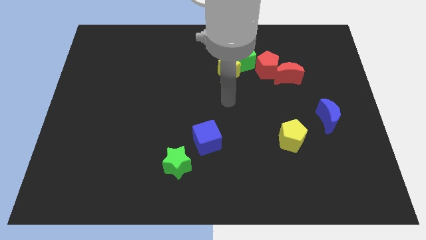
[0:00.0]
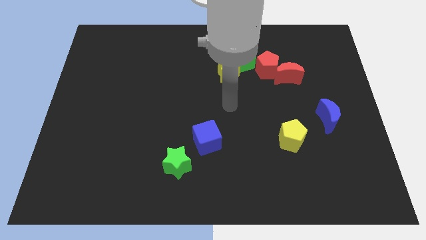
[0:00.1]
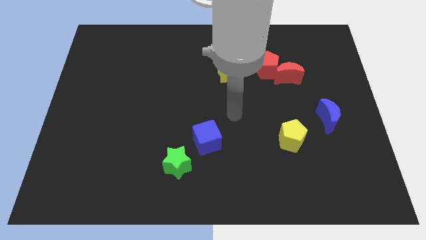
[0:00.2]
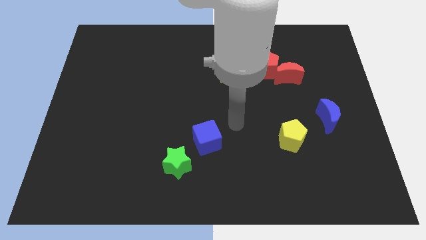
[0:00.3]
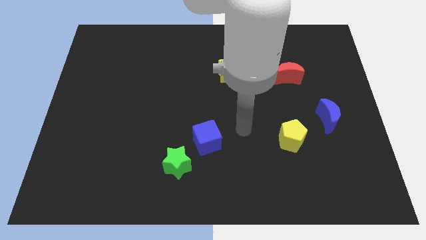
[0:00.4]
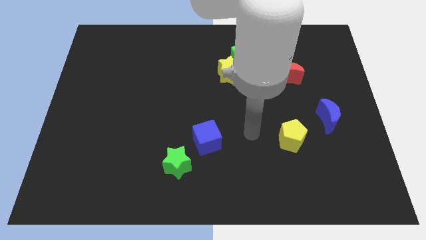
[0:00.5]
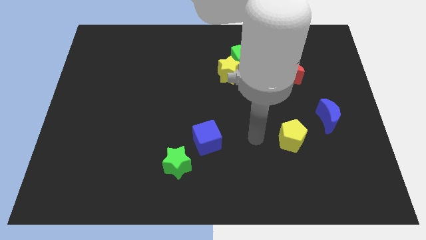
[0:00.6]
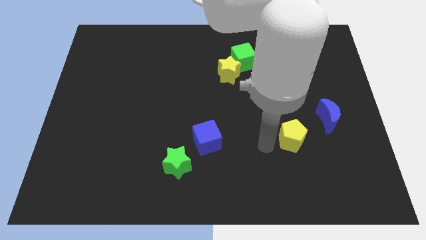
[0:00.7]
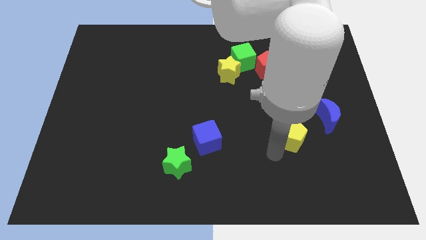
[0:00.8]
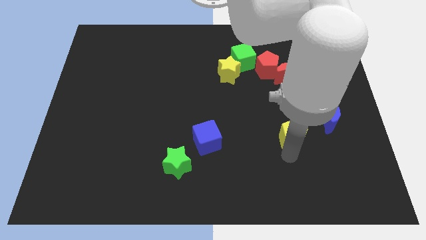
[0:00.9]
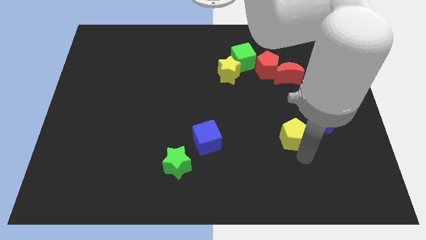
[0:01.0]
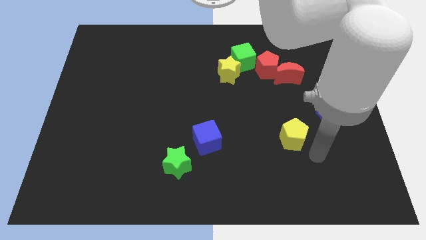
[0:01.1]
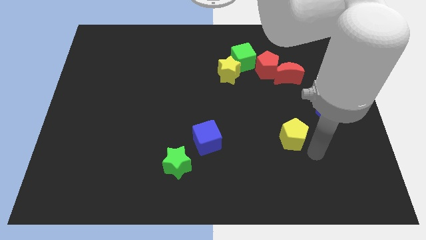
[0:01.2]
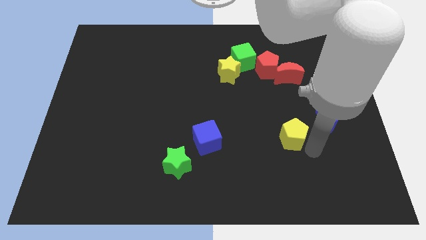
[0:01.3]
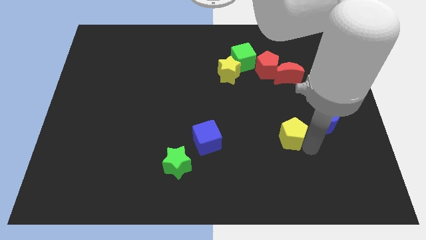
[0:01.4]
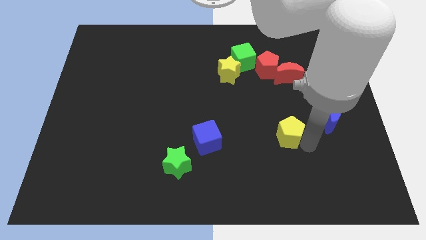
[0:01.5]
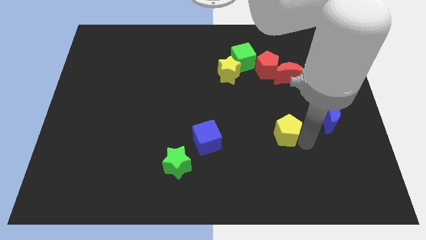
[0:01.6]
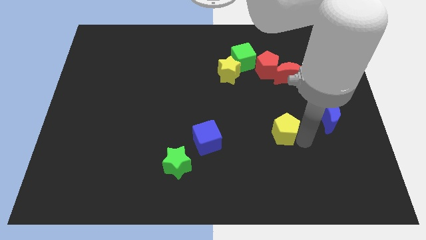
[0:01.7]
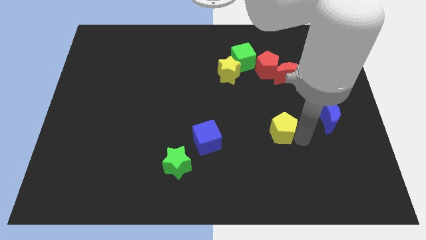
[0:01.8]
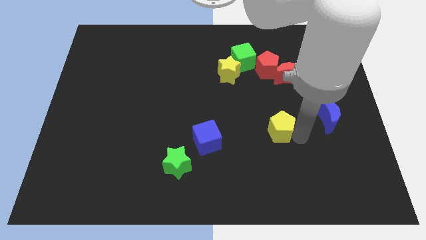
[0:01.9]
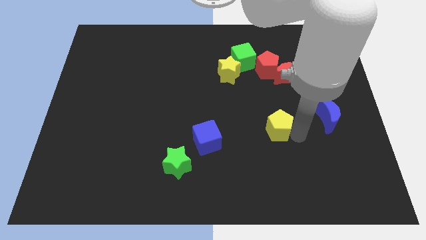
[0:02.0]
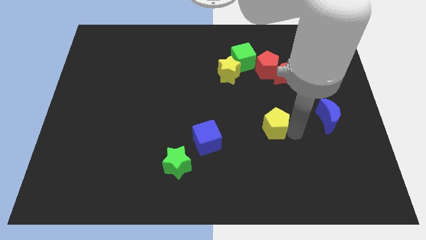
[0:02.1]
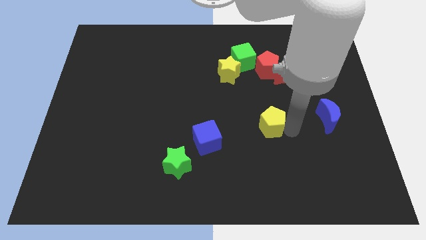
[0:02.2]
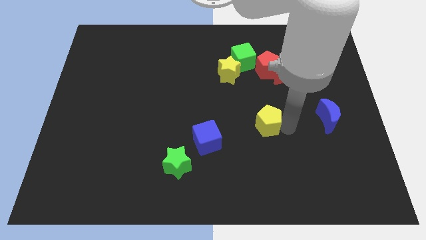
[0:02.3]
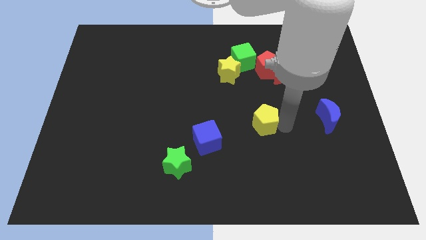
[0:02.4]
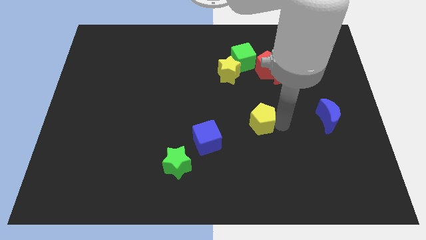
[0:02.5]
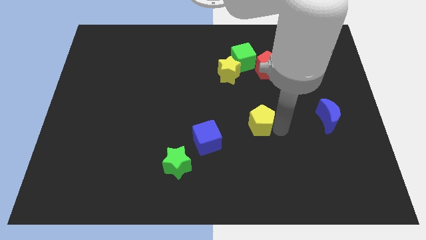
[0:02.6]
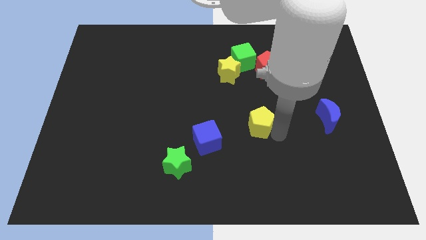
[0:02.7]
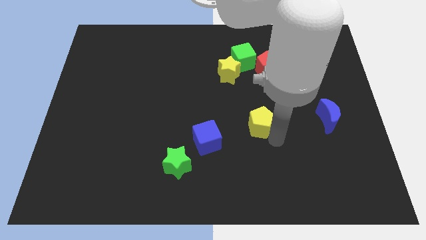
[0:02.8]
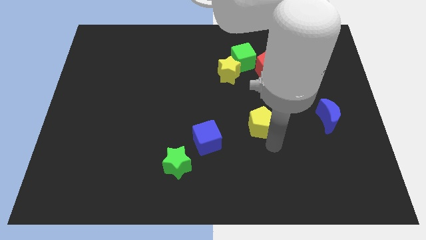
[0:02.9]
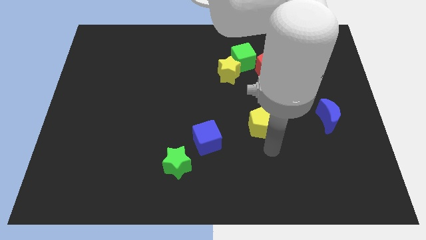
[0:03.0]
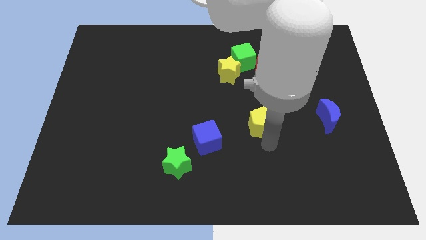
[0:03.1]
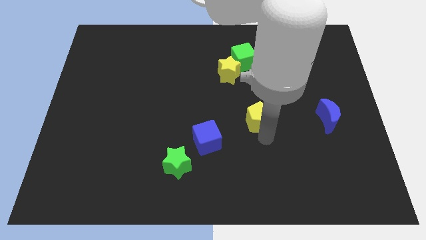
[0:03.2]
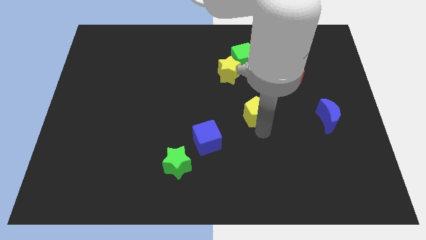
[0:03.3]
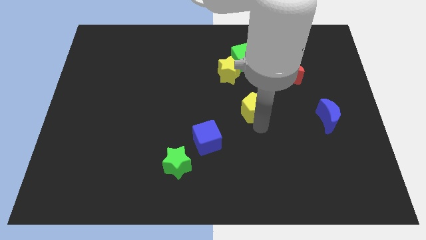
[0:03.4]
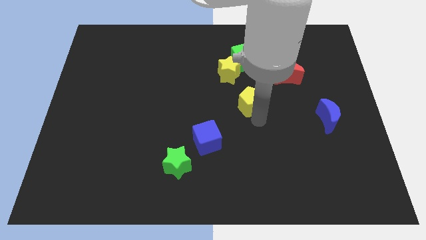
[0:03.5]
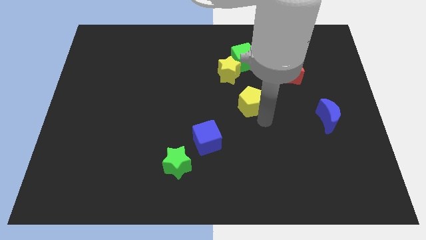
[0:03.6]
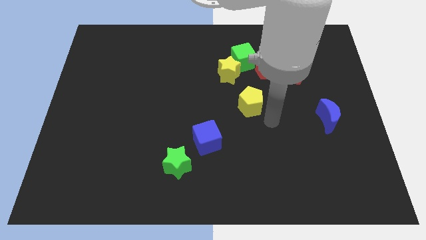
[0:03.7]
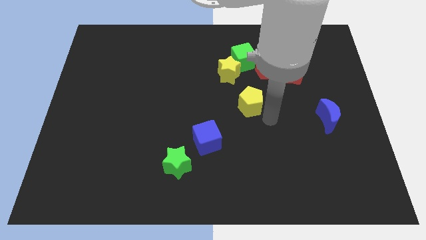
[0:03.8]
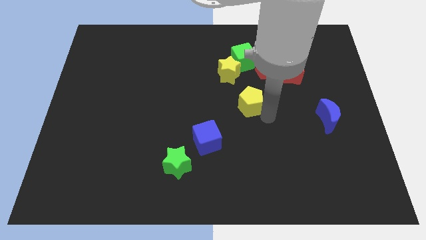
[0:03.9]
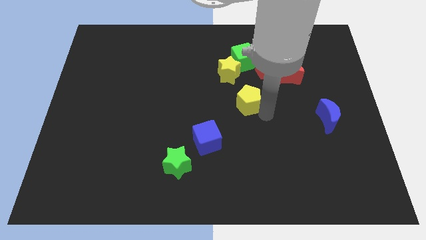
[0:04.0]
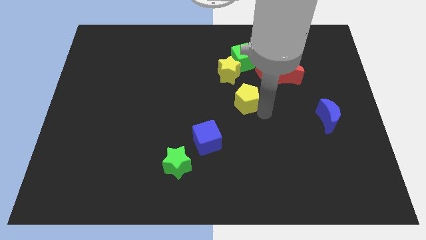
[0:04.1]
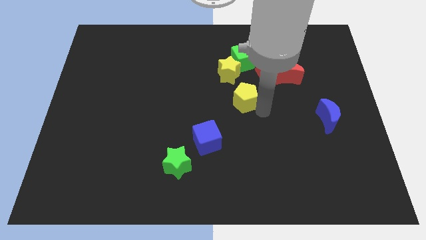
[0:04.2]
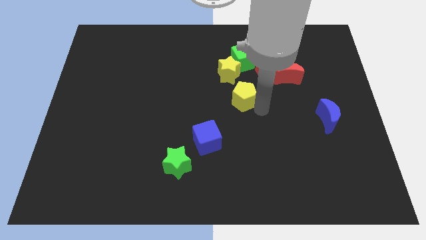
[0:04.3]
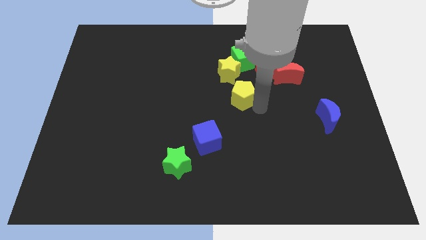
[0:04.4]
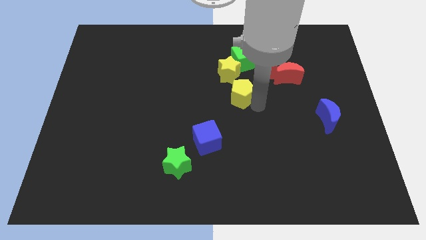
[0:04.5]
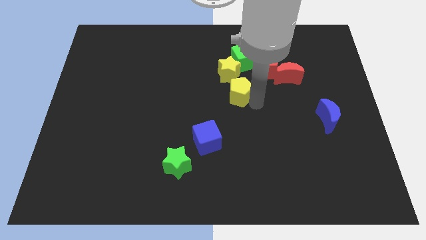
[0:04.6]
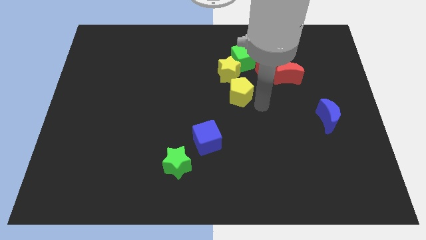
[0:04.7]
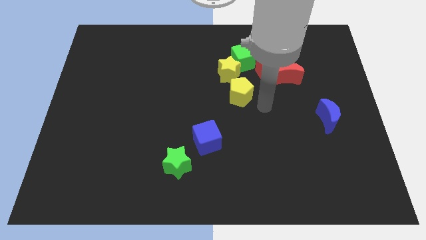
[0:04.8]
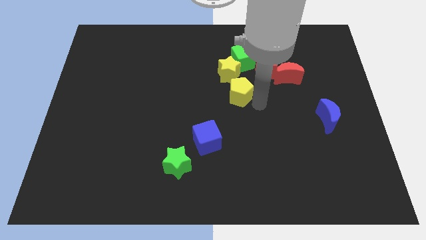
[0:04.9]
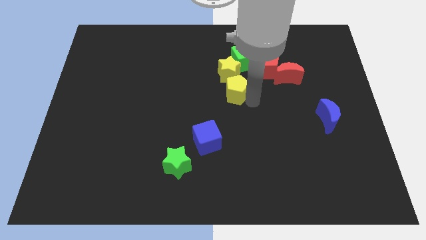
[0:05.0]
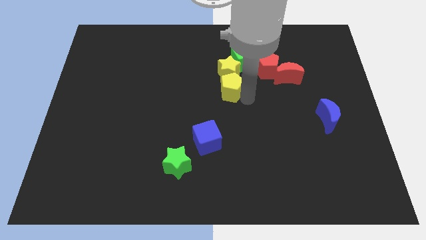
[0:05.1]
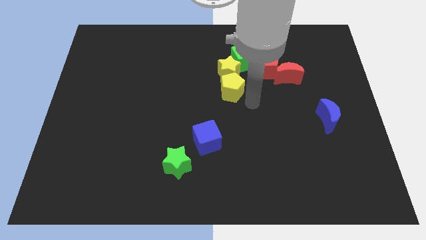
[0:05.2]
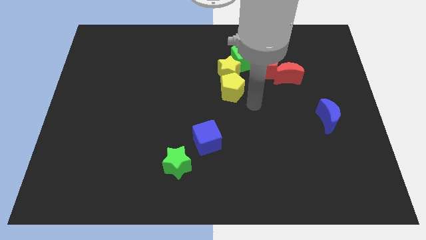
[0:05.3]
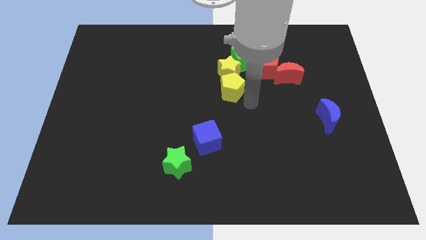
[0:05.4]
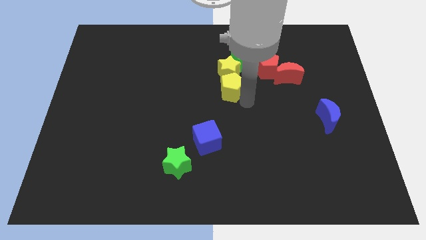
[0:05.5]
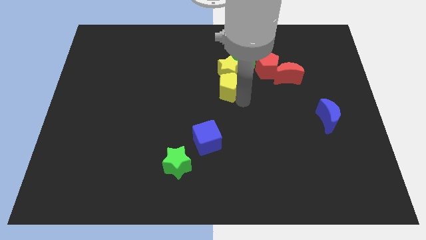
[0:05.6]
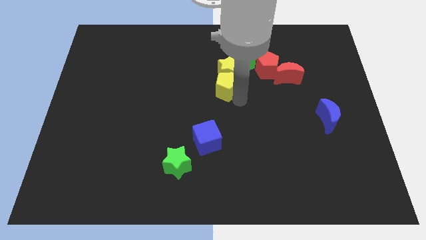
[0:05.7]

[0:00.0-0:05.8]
push the yellow pentagon diagonally upwards and to the left

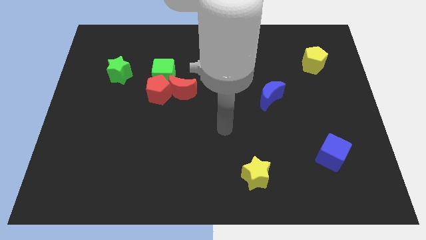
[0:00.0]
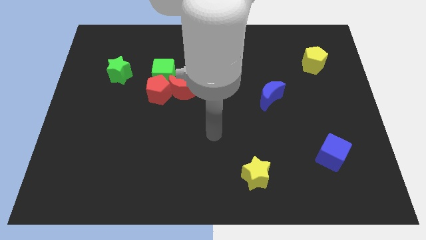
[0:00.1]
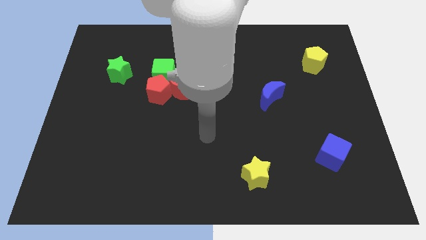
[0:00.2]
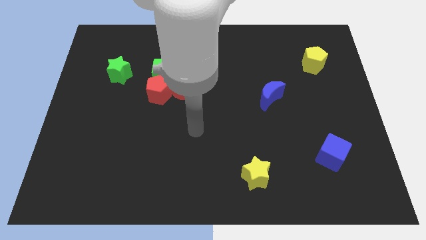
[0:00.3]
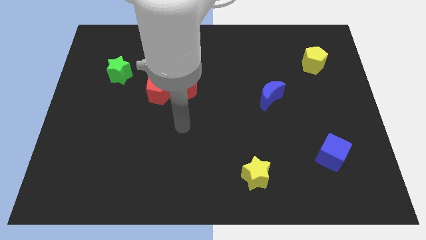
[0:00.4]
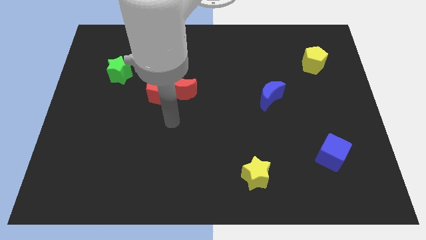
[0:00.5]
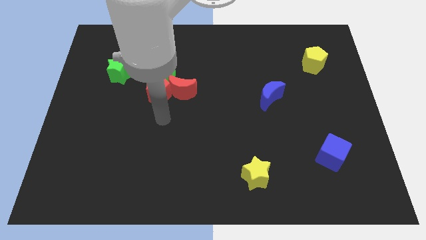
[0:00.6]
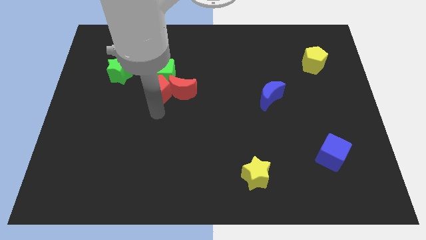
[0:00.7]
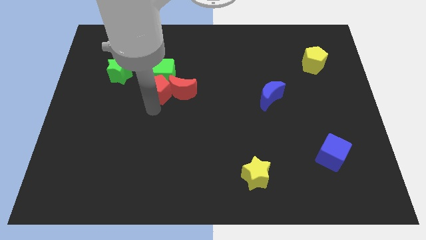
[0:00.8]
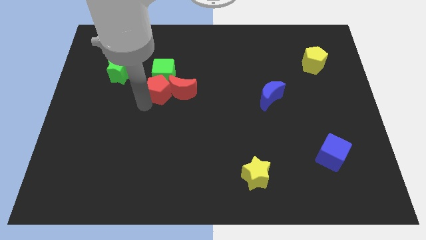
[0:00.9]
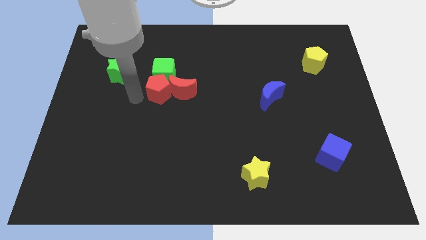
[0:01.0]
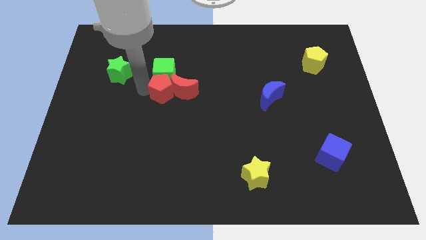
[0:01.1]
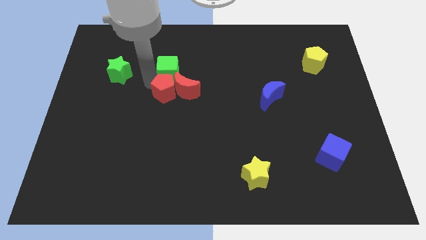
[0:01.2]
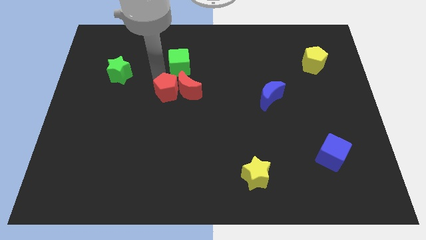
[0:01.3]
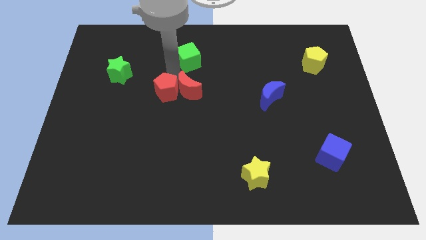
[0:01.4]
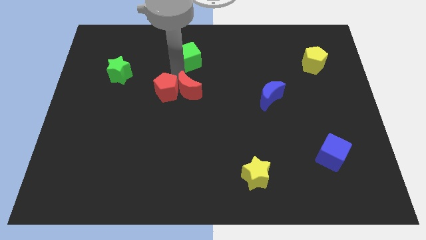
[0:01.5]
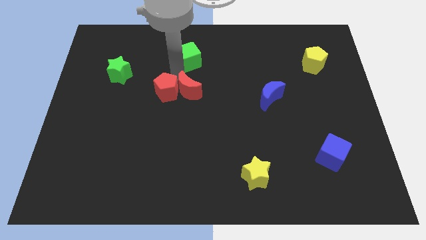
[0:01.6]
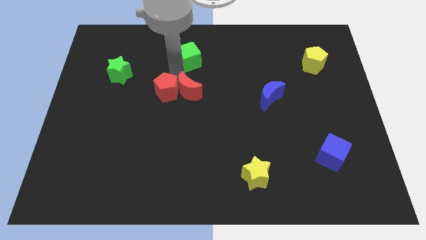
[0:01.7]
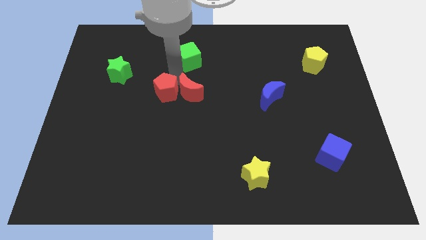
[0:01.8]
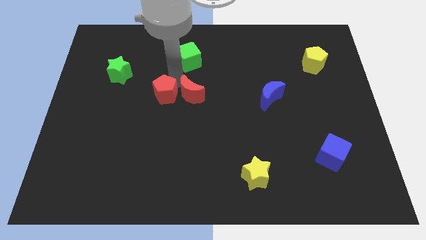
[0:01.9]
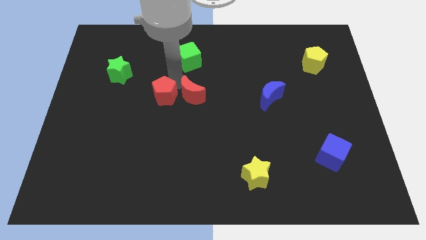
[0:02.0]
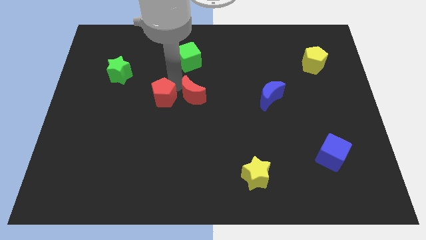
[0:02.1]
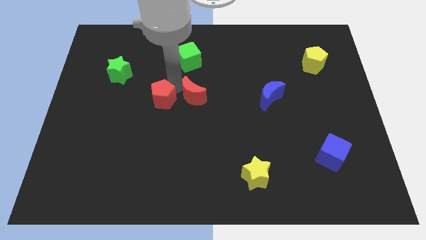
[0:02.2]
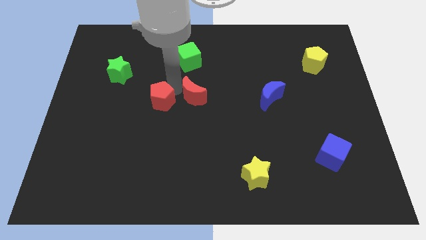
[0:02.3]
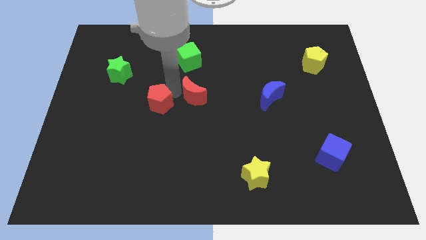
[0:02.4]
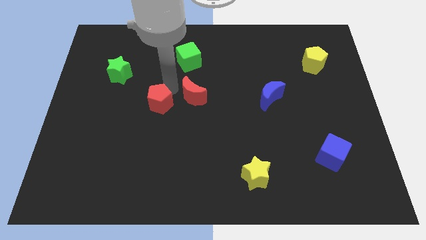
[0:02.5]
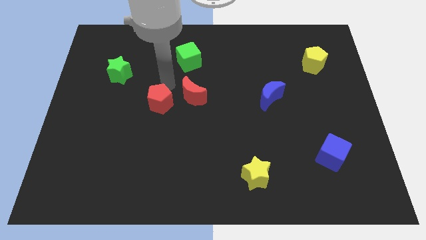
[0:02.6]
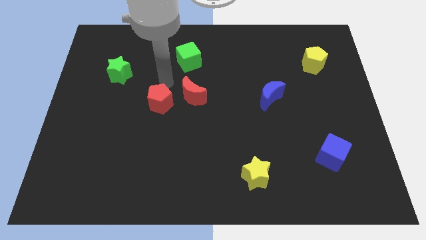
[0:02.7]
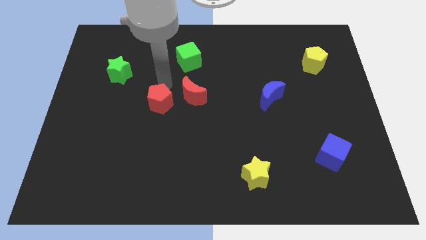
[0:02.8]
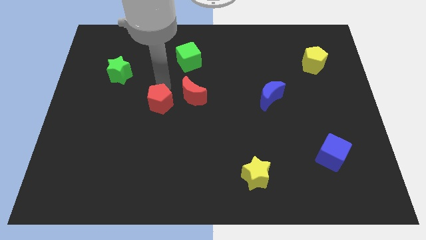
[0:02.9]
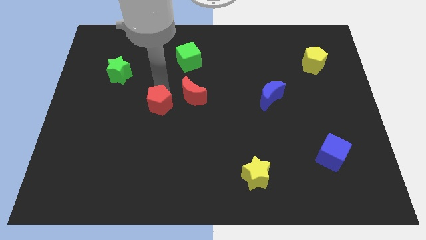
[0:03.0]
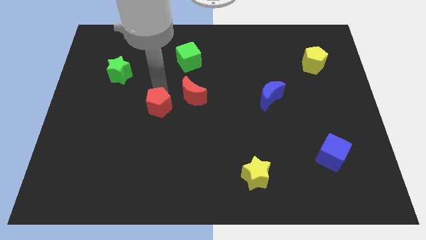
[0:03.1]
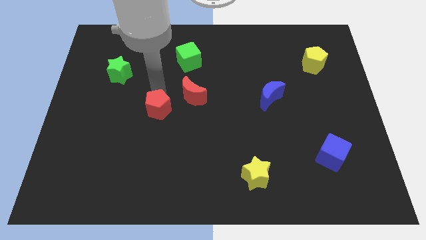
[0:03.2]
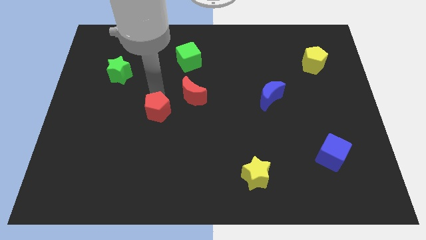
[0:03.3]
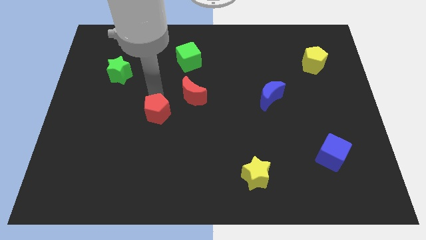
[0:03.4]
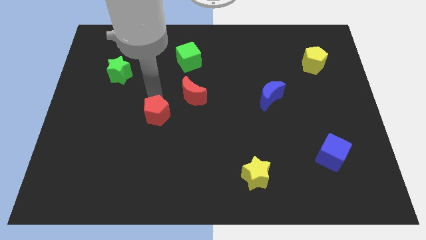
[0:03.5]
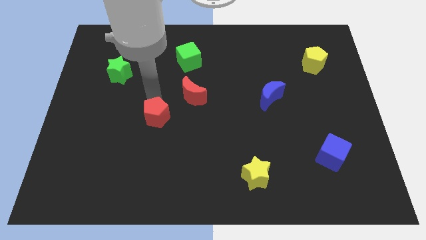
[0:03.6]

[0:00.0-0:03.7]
slightly slide the red pentagon down
